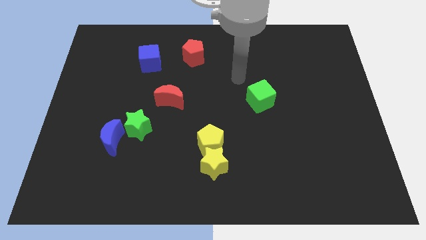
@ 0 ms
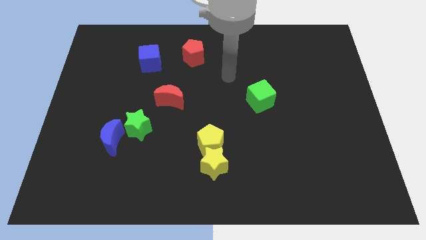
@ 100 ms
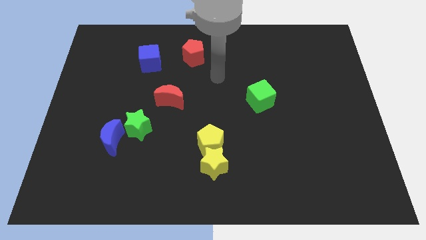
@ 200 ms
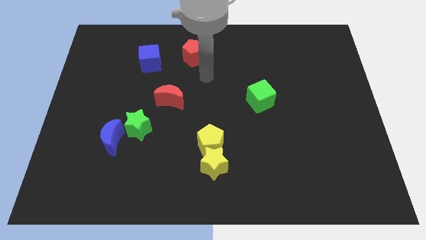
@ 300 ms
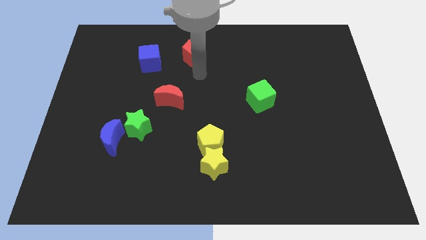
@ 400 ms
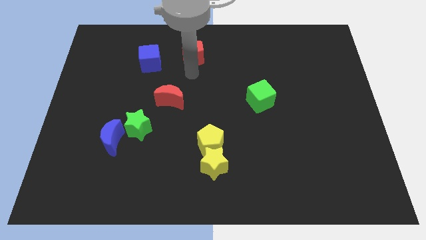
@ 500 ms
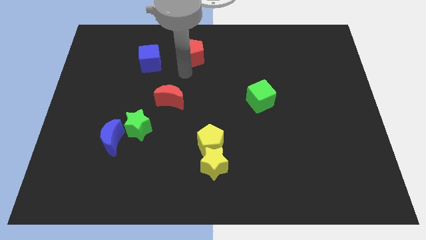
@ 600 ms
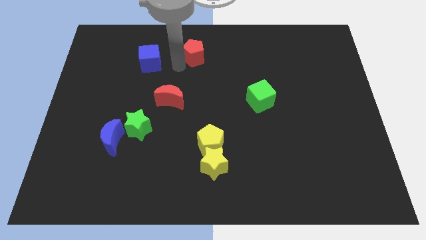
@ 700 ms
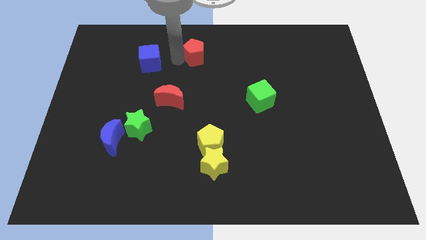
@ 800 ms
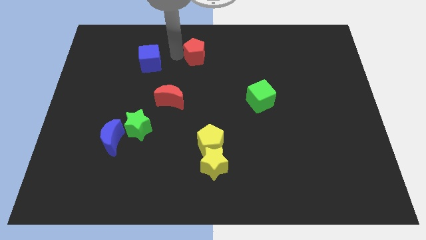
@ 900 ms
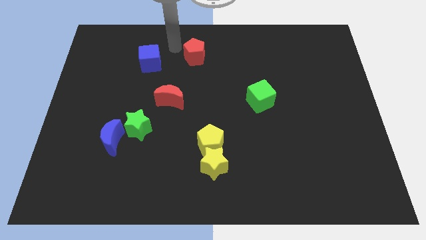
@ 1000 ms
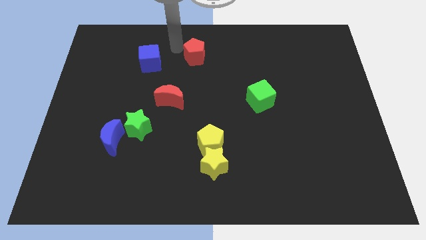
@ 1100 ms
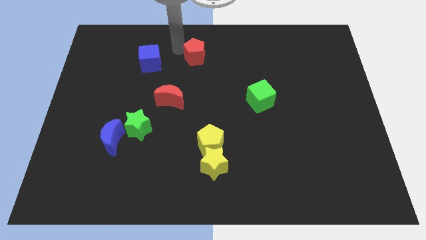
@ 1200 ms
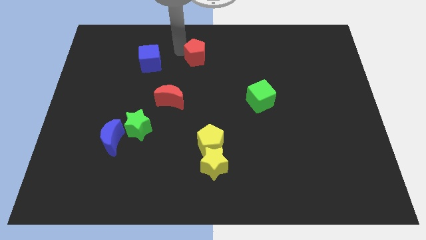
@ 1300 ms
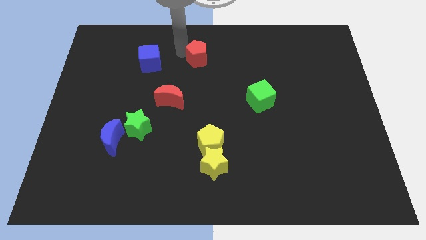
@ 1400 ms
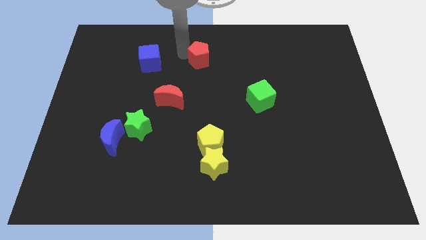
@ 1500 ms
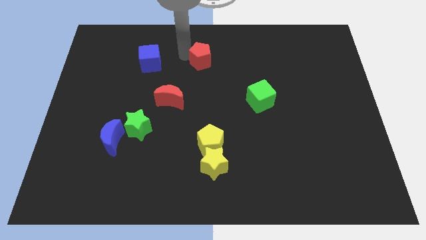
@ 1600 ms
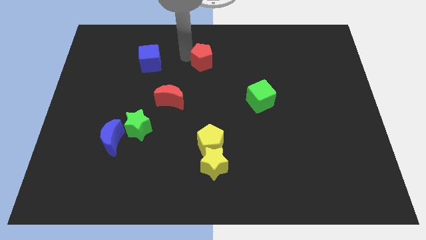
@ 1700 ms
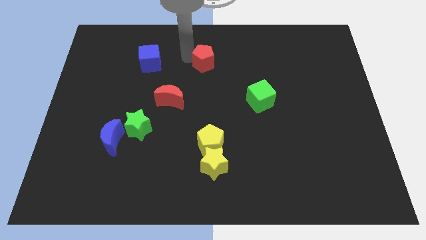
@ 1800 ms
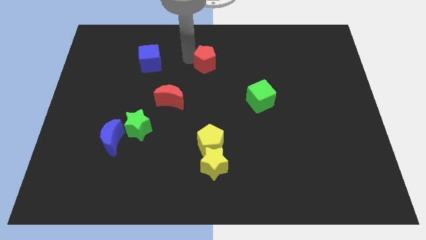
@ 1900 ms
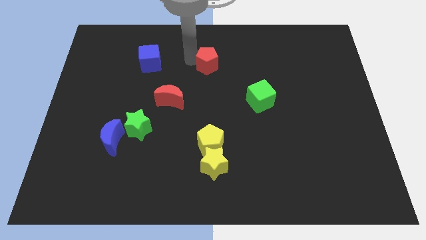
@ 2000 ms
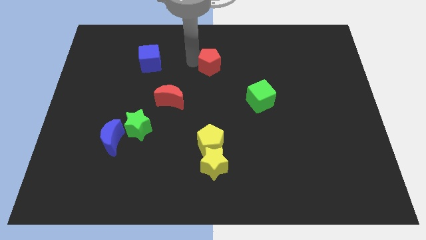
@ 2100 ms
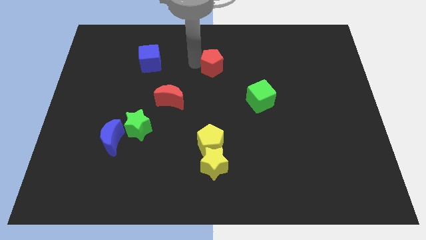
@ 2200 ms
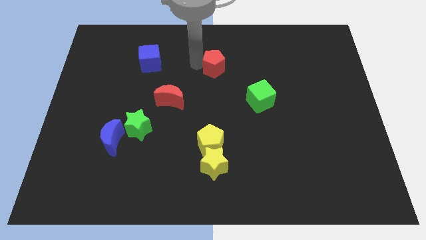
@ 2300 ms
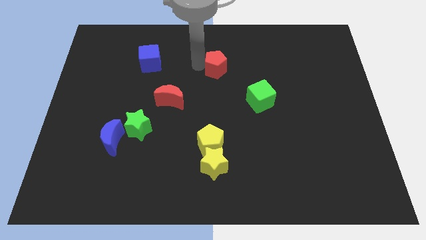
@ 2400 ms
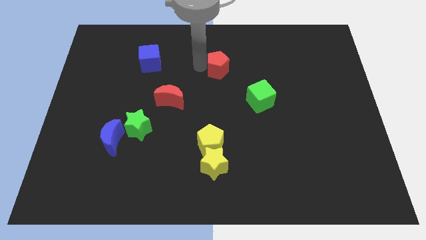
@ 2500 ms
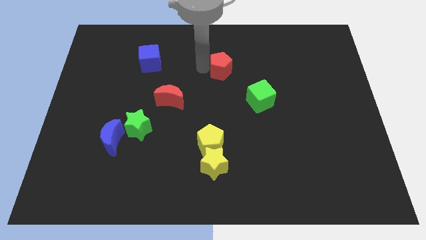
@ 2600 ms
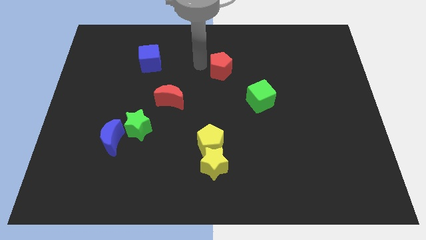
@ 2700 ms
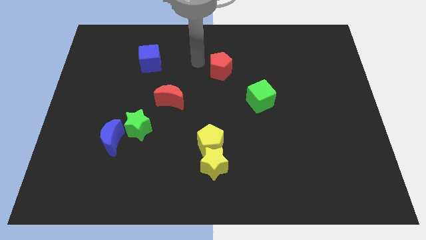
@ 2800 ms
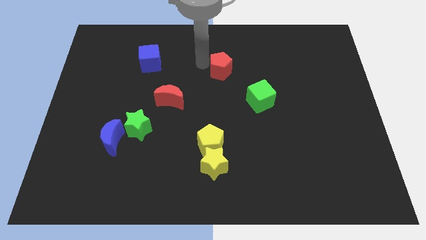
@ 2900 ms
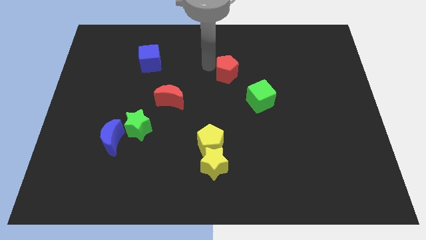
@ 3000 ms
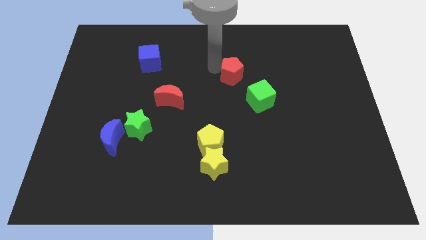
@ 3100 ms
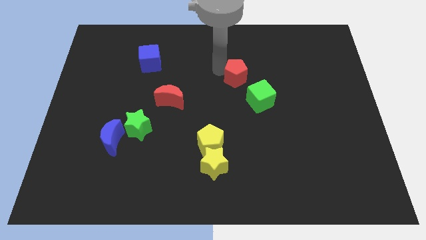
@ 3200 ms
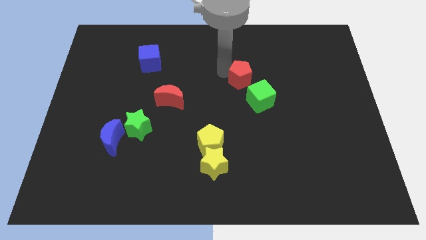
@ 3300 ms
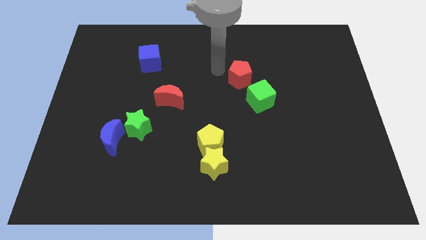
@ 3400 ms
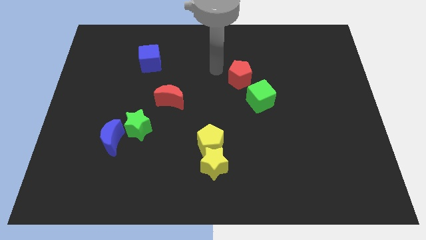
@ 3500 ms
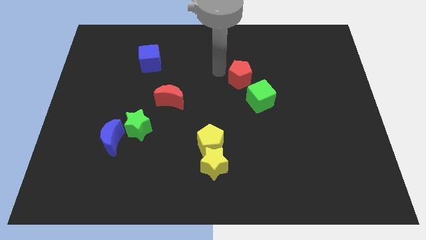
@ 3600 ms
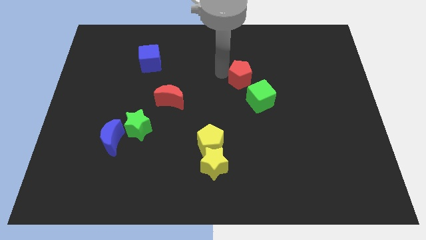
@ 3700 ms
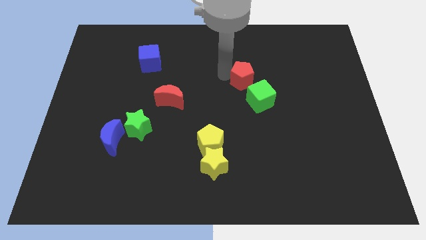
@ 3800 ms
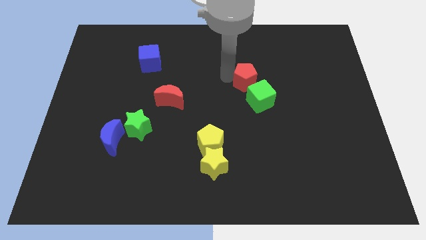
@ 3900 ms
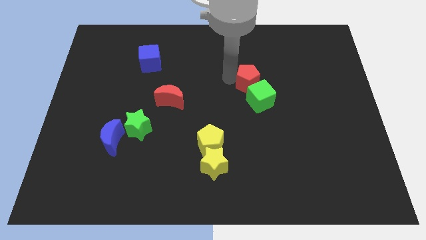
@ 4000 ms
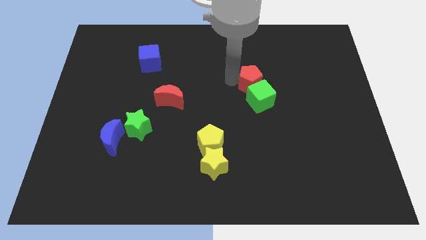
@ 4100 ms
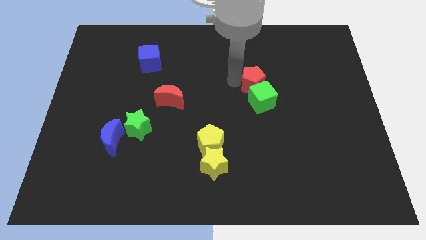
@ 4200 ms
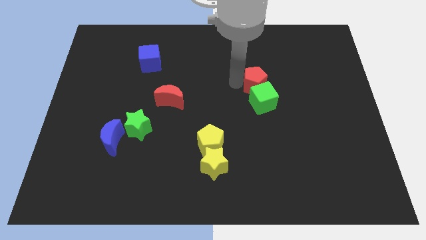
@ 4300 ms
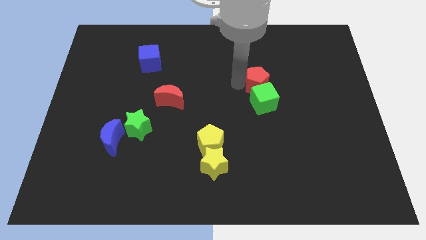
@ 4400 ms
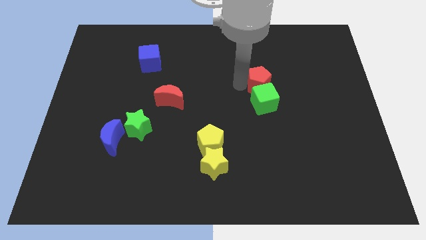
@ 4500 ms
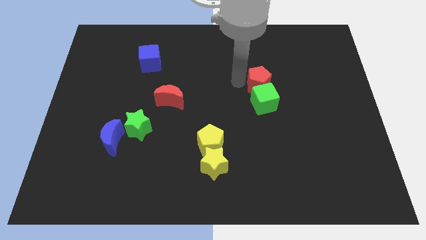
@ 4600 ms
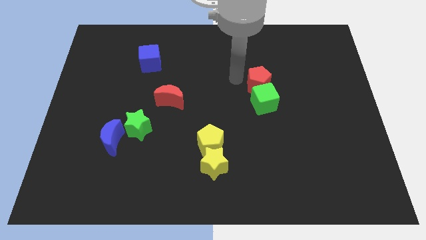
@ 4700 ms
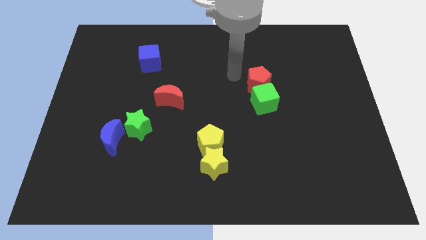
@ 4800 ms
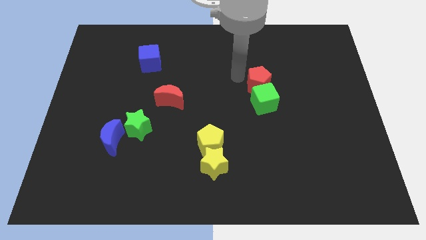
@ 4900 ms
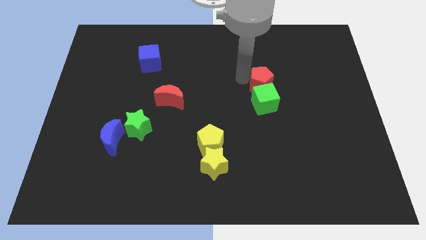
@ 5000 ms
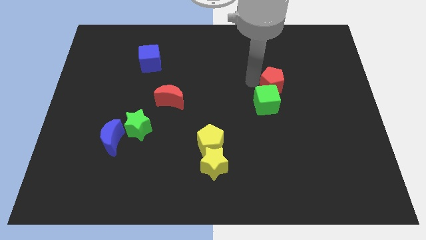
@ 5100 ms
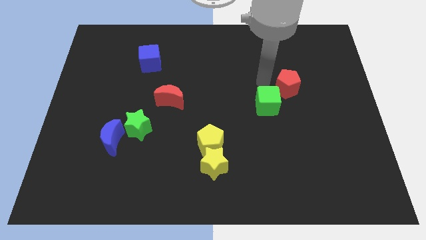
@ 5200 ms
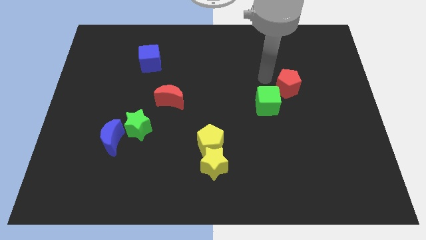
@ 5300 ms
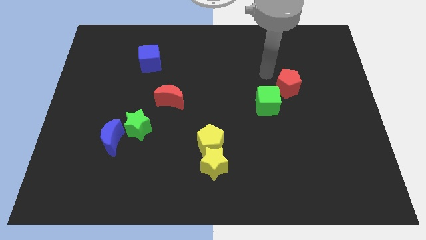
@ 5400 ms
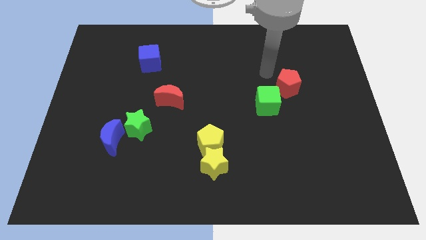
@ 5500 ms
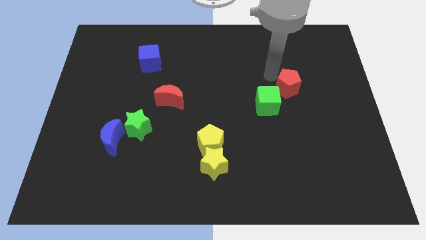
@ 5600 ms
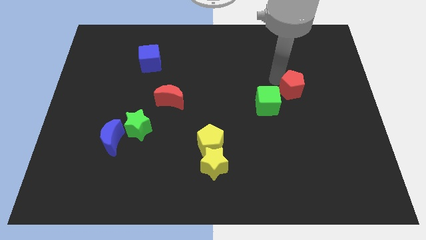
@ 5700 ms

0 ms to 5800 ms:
move the red pentagon to the right of the green cube
